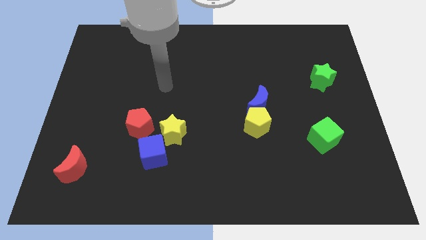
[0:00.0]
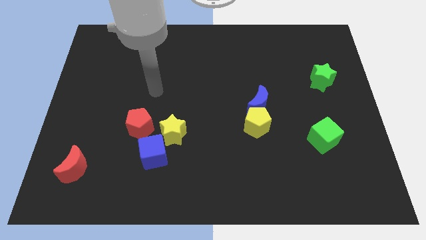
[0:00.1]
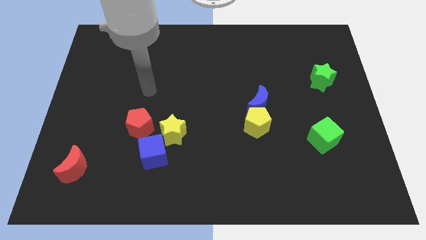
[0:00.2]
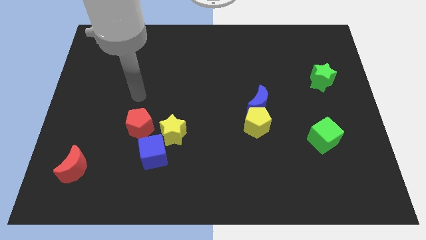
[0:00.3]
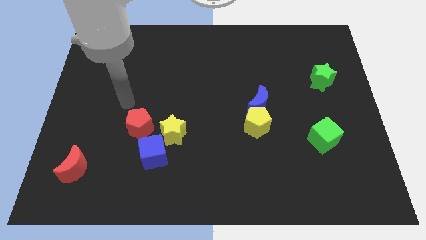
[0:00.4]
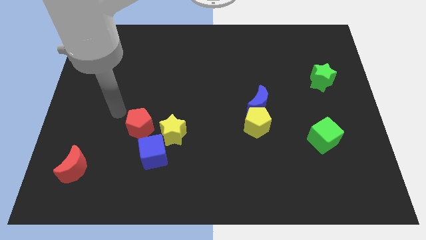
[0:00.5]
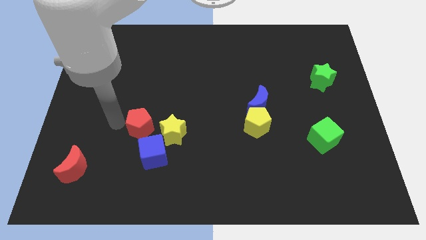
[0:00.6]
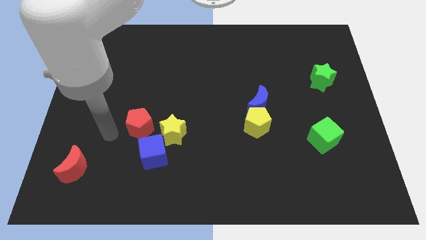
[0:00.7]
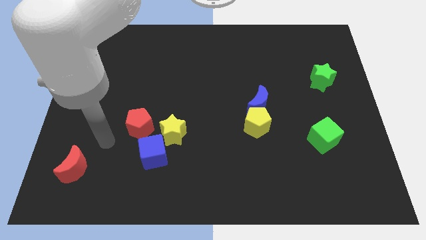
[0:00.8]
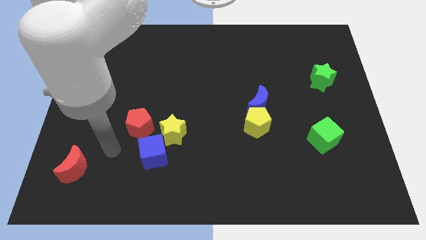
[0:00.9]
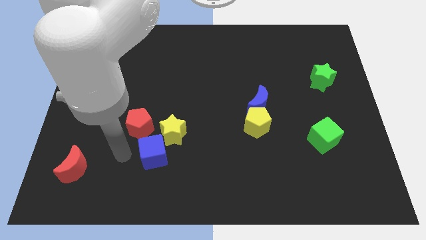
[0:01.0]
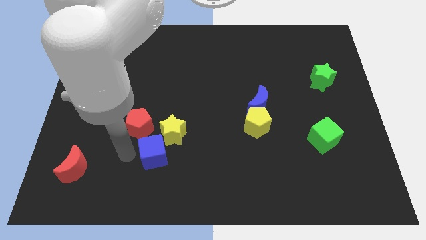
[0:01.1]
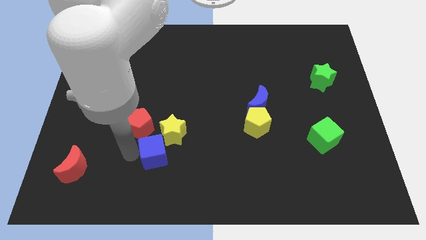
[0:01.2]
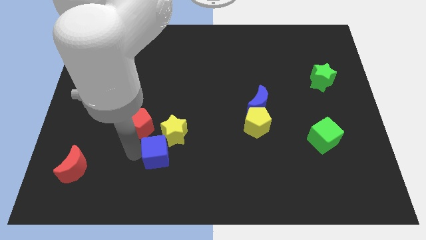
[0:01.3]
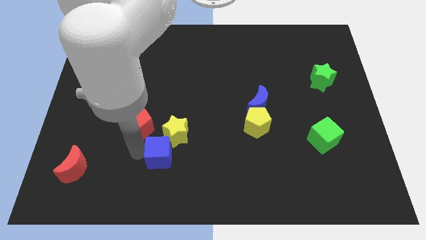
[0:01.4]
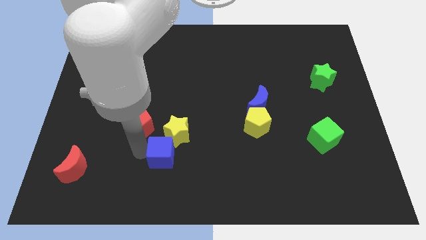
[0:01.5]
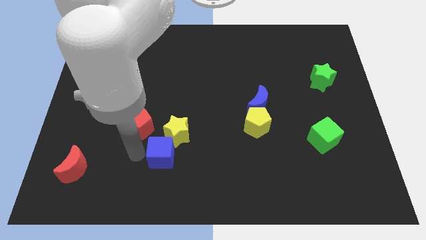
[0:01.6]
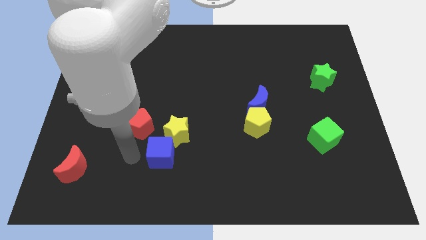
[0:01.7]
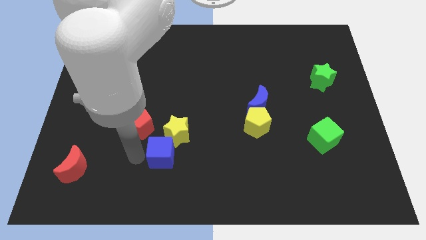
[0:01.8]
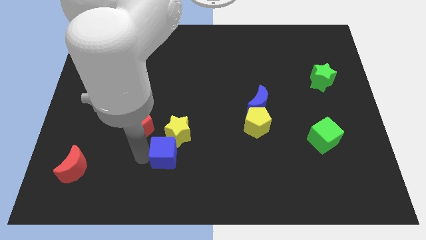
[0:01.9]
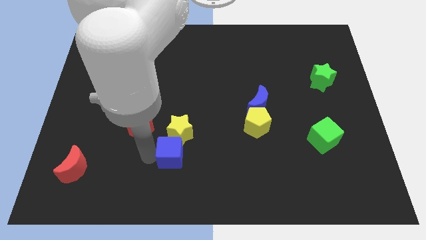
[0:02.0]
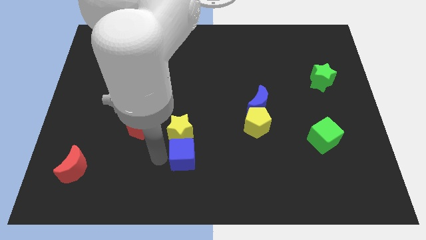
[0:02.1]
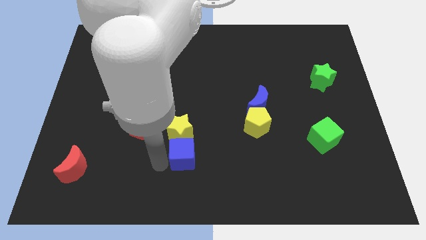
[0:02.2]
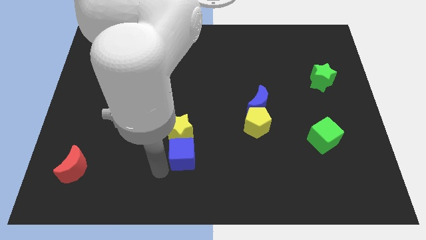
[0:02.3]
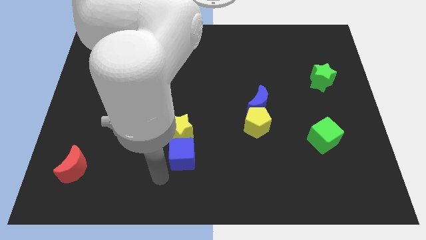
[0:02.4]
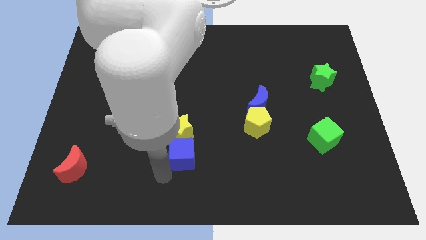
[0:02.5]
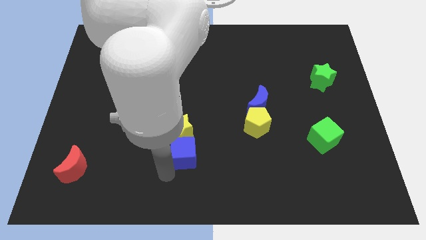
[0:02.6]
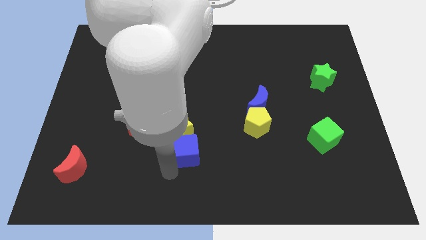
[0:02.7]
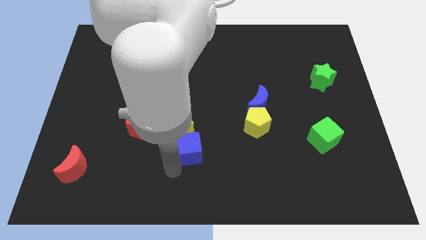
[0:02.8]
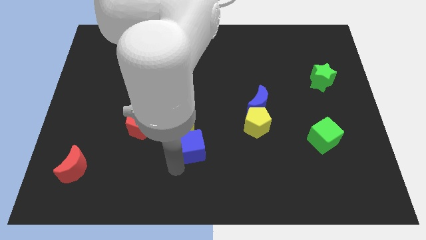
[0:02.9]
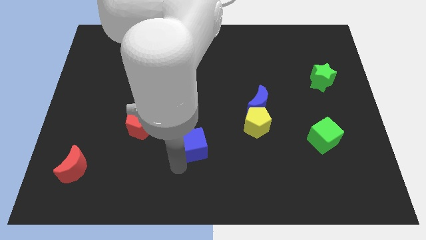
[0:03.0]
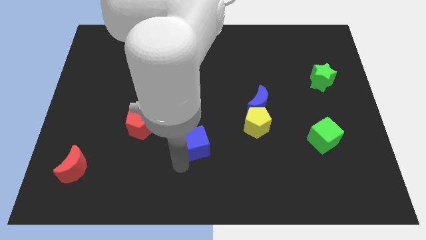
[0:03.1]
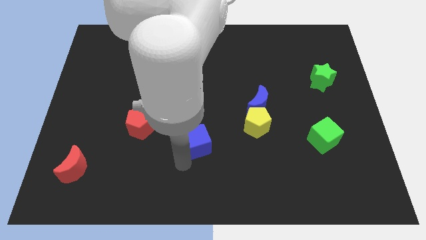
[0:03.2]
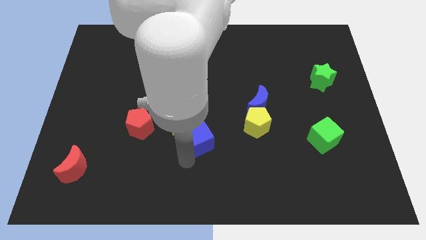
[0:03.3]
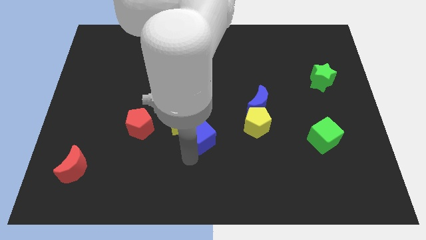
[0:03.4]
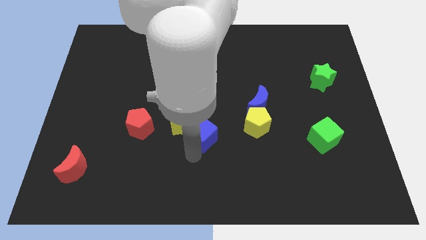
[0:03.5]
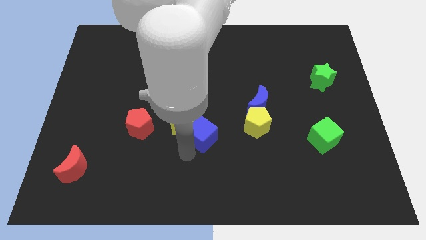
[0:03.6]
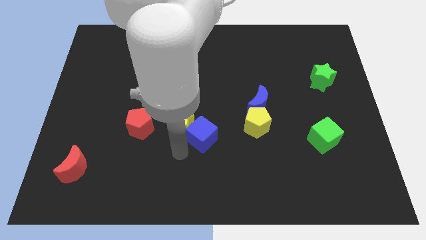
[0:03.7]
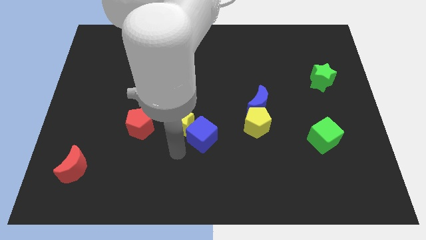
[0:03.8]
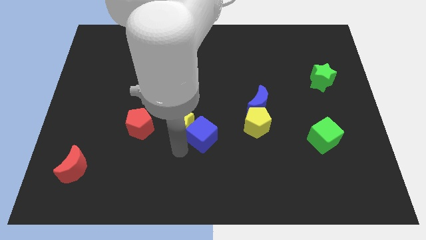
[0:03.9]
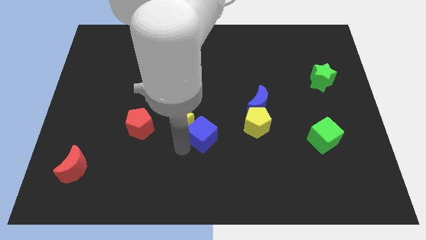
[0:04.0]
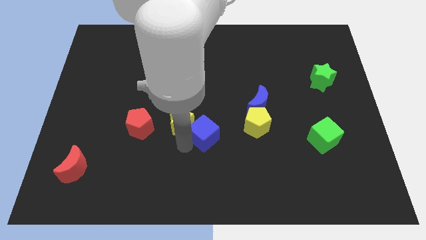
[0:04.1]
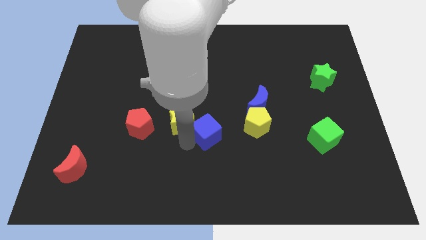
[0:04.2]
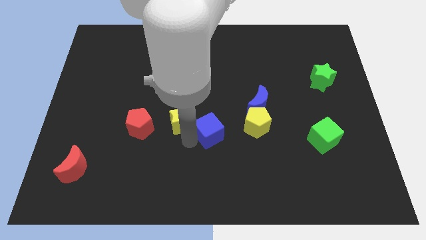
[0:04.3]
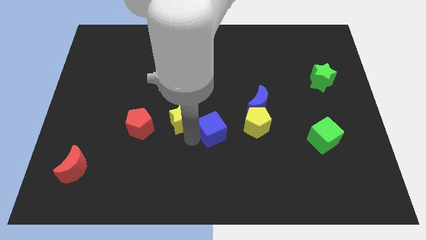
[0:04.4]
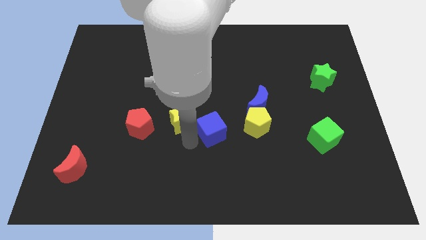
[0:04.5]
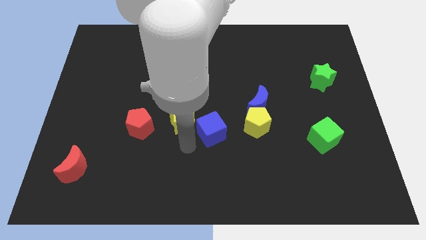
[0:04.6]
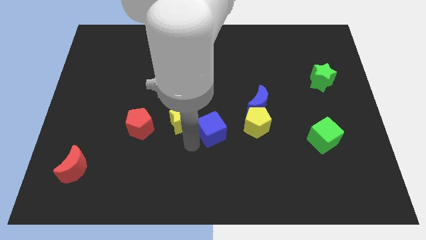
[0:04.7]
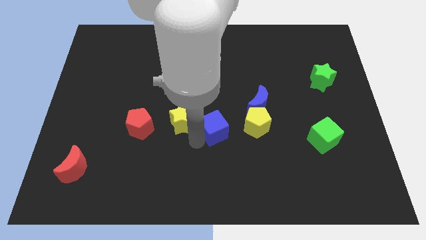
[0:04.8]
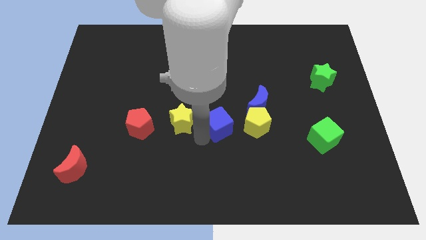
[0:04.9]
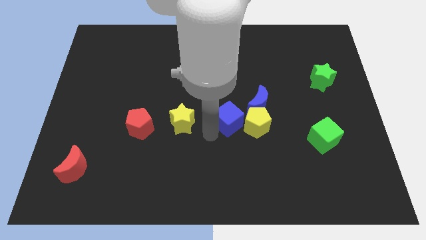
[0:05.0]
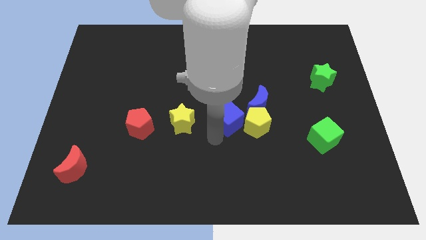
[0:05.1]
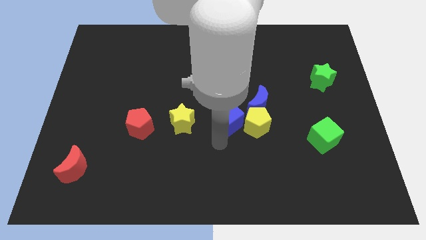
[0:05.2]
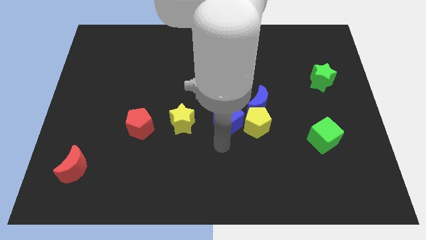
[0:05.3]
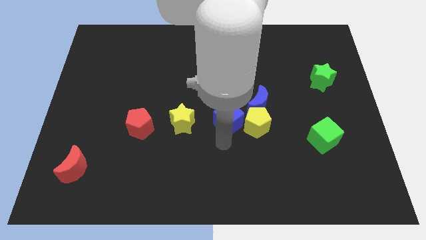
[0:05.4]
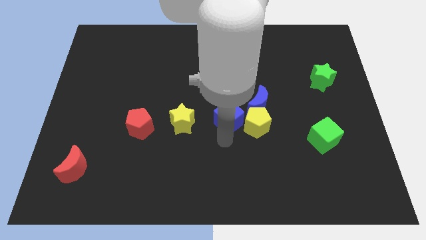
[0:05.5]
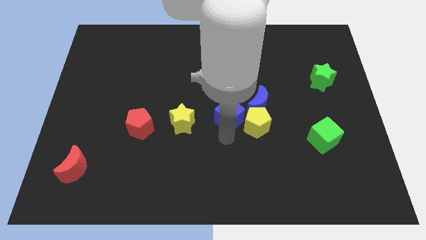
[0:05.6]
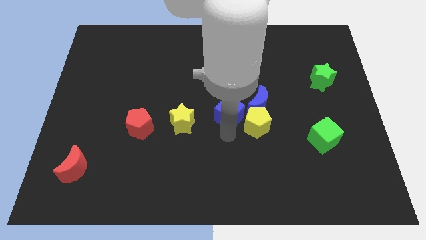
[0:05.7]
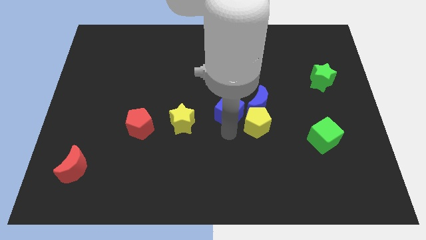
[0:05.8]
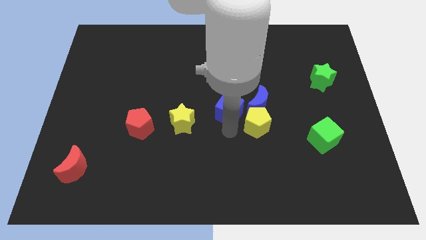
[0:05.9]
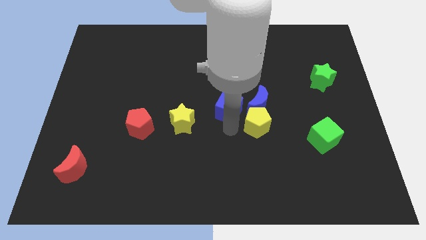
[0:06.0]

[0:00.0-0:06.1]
push the blue cube upwards and to the right

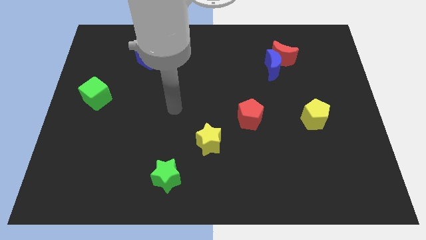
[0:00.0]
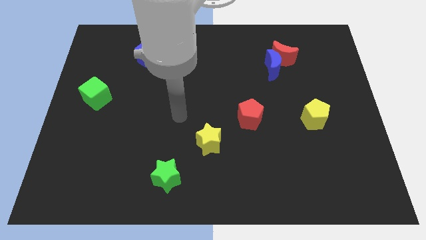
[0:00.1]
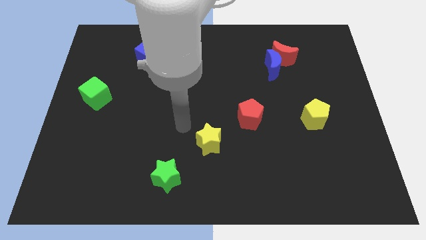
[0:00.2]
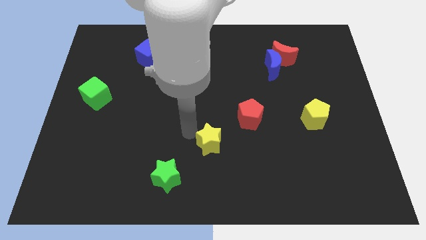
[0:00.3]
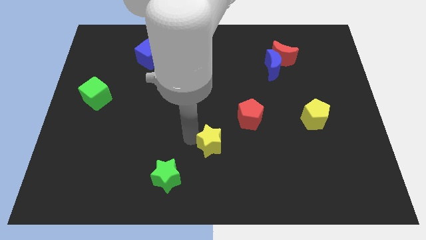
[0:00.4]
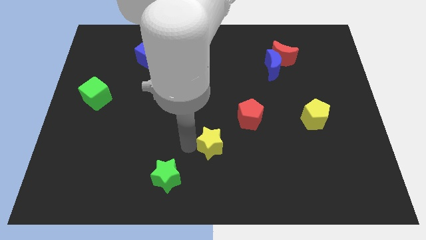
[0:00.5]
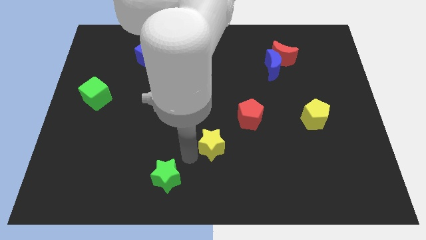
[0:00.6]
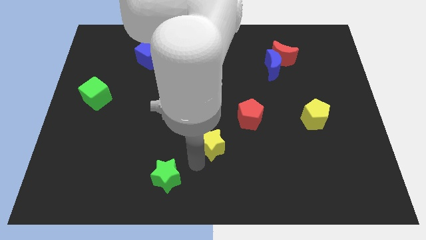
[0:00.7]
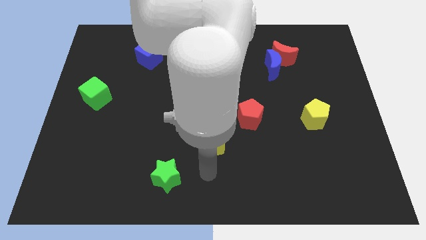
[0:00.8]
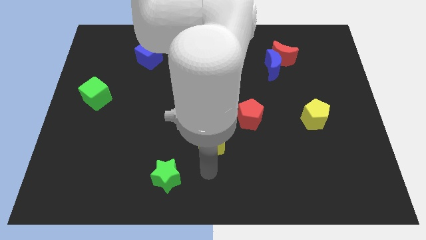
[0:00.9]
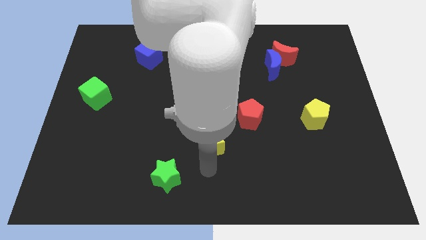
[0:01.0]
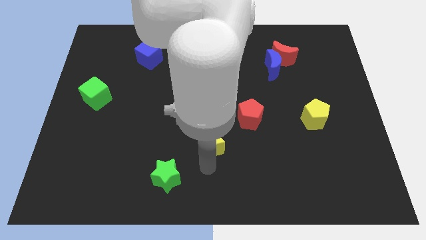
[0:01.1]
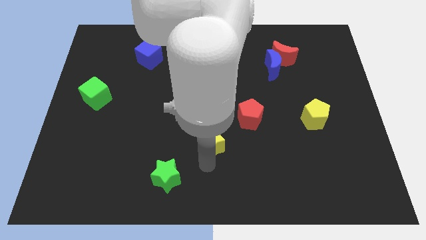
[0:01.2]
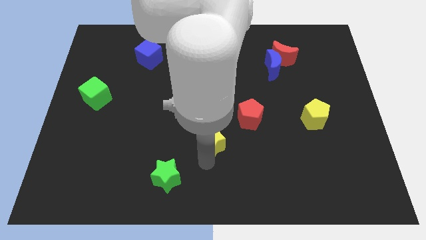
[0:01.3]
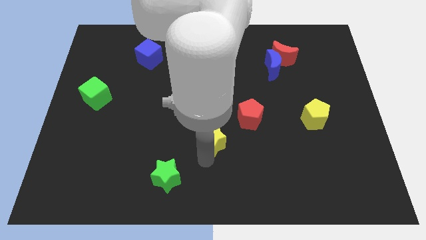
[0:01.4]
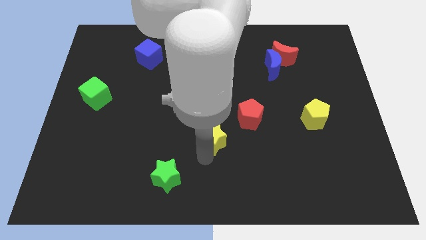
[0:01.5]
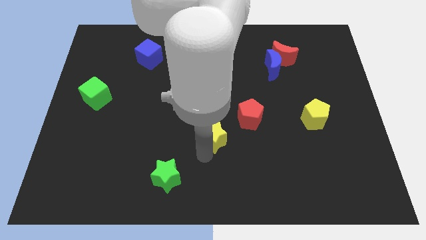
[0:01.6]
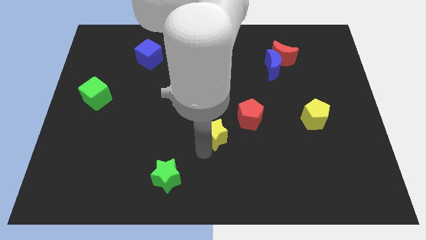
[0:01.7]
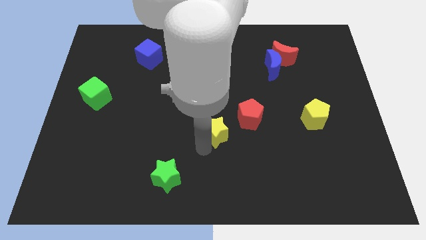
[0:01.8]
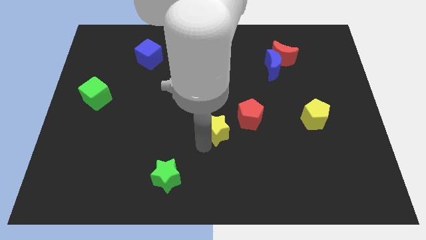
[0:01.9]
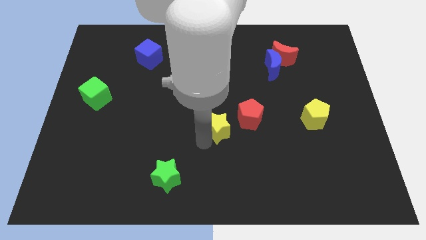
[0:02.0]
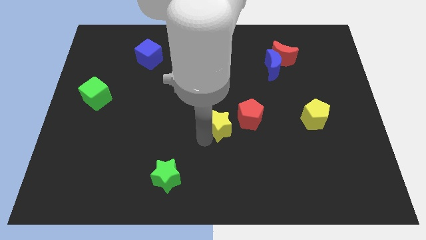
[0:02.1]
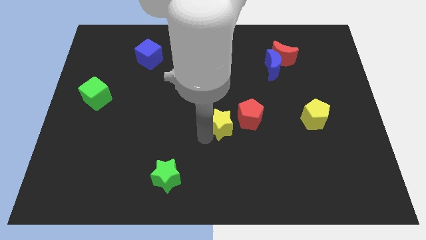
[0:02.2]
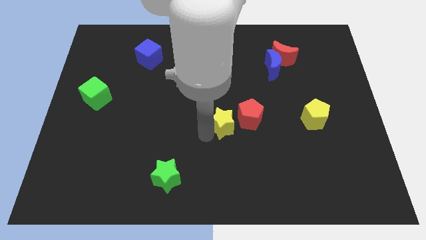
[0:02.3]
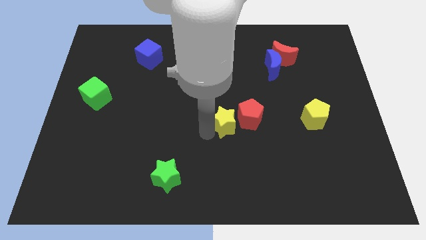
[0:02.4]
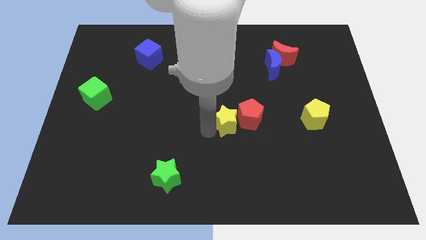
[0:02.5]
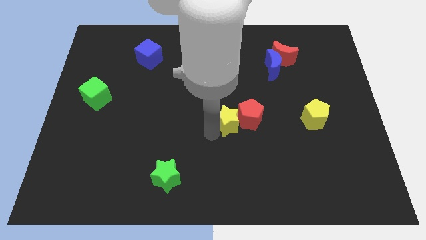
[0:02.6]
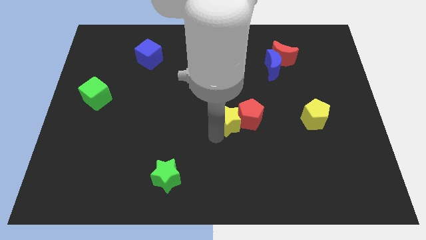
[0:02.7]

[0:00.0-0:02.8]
slide the yellow star up and to the right diagonally somewhat
